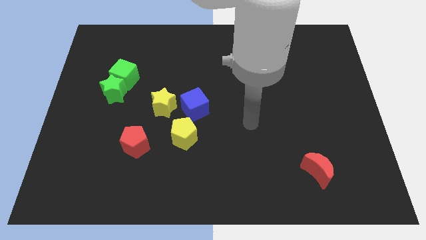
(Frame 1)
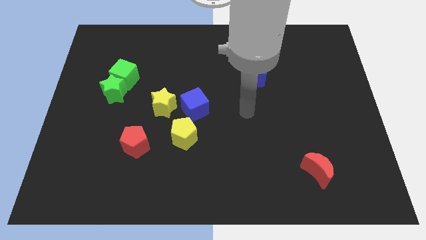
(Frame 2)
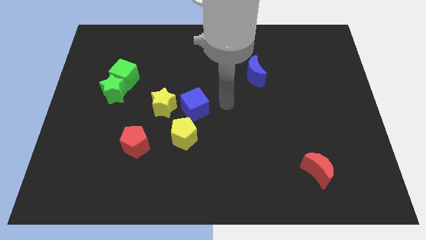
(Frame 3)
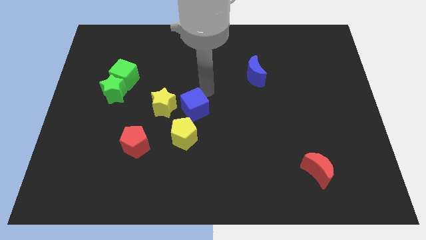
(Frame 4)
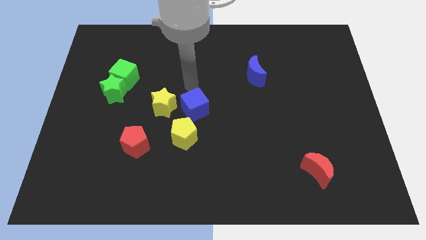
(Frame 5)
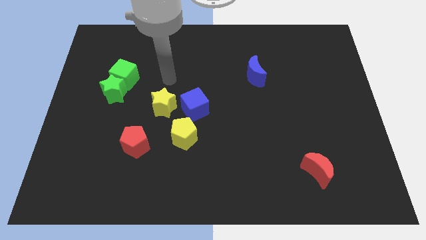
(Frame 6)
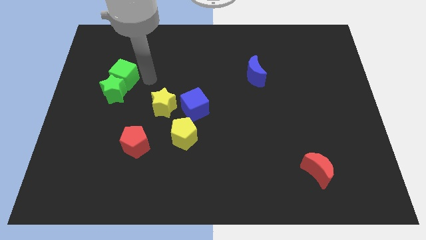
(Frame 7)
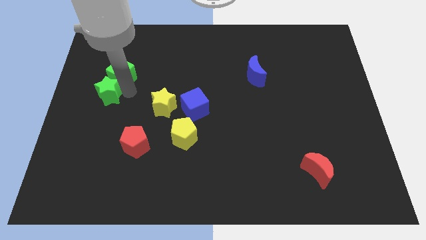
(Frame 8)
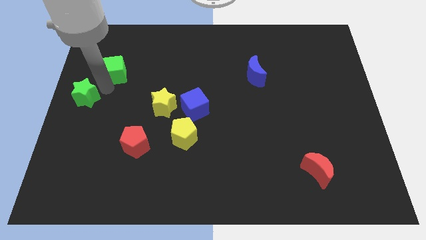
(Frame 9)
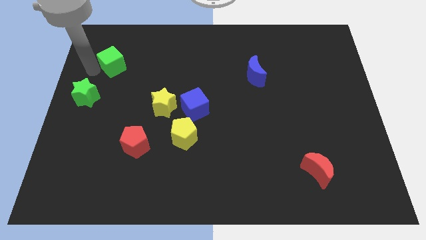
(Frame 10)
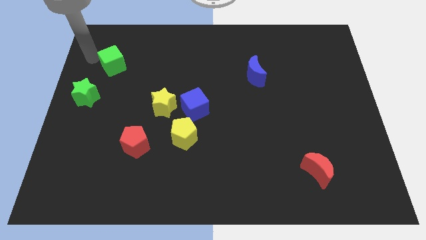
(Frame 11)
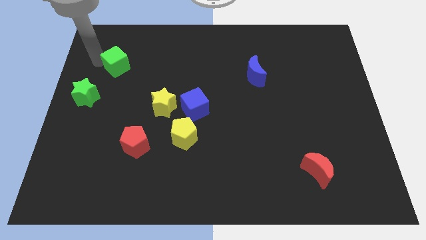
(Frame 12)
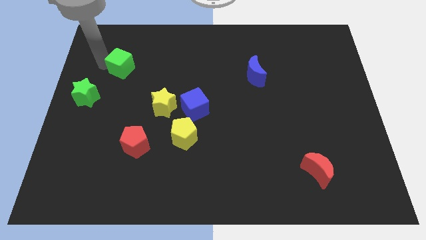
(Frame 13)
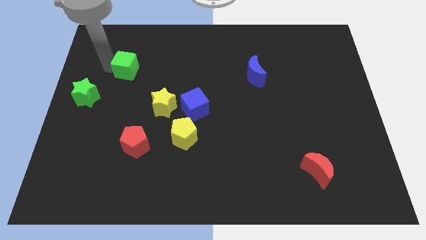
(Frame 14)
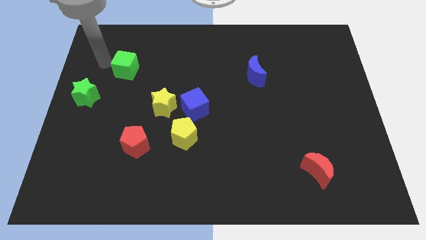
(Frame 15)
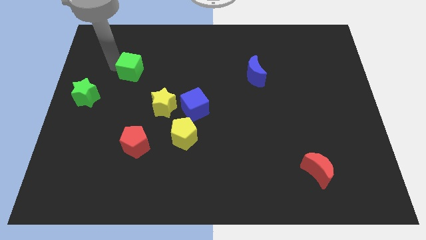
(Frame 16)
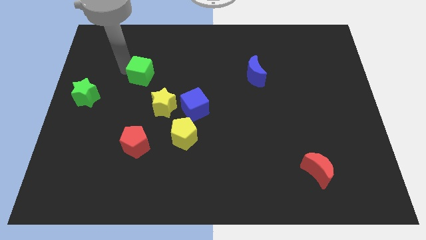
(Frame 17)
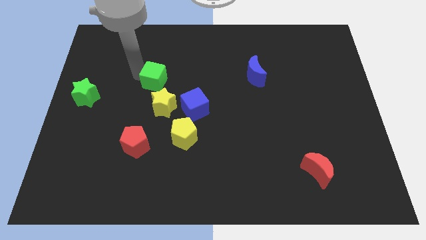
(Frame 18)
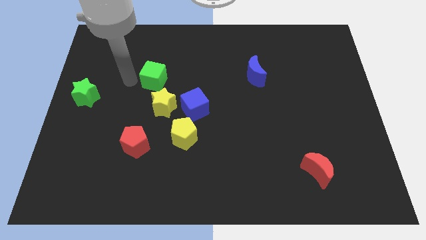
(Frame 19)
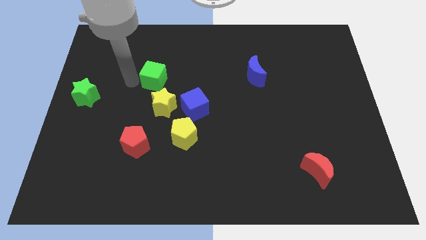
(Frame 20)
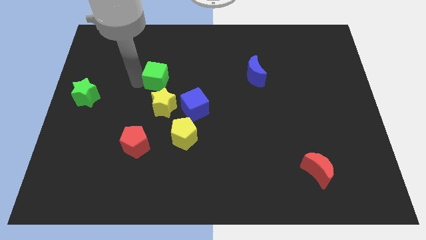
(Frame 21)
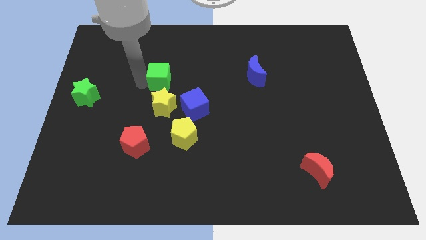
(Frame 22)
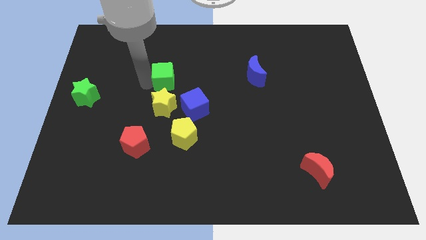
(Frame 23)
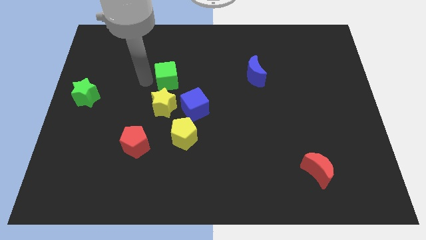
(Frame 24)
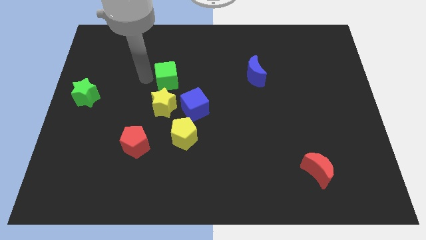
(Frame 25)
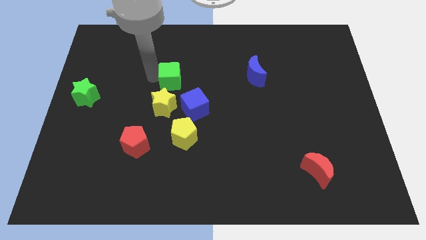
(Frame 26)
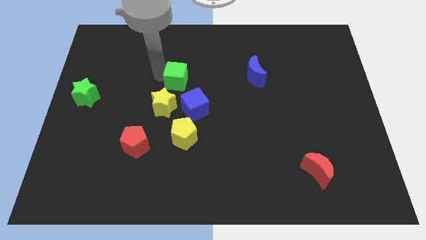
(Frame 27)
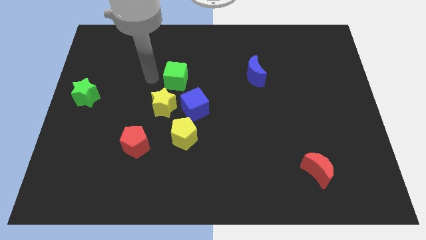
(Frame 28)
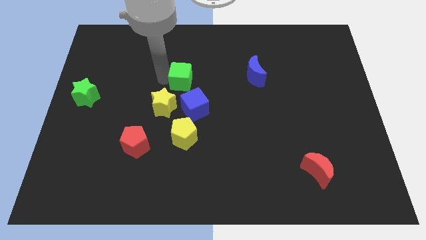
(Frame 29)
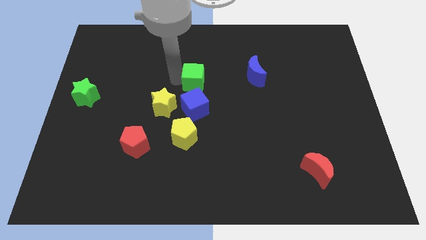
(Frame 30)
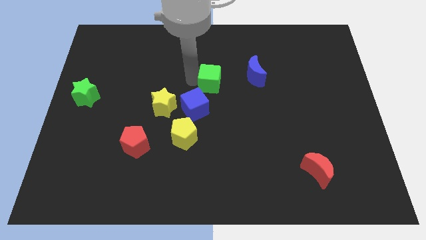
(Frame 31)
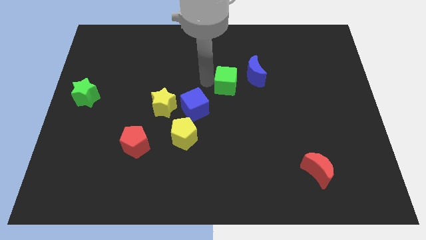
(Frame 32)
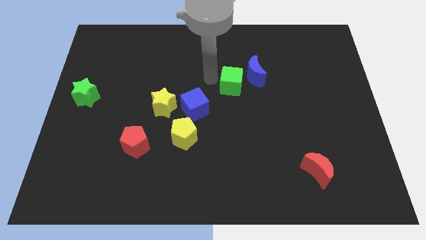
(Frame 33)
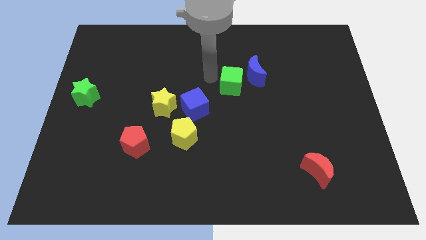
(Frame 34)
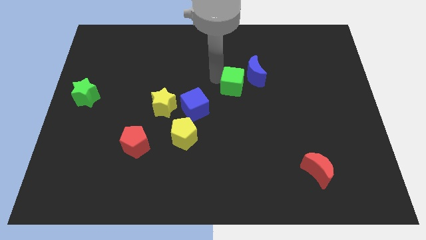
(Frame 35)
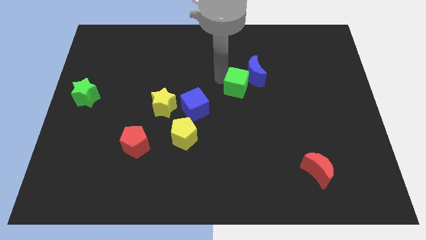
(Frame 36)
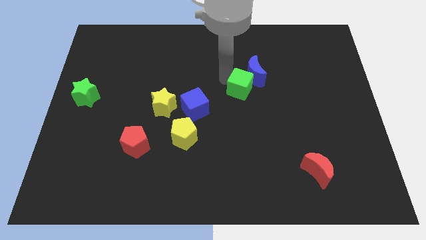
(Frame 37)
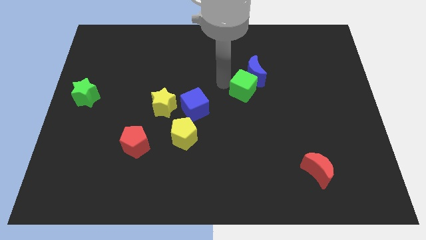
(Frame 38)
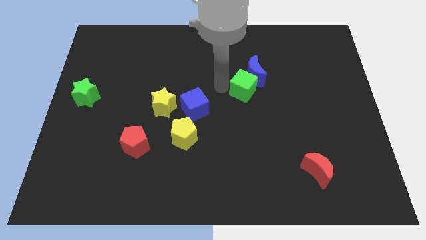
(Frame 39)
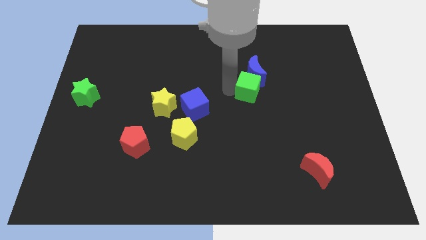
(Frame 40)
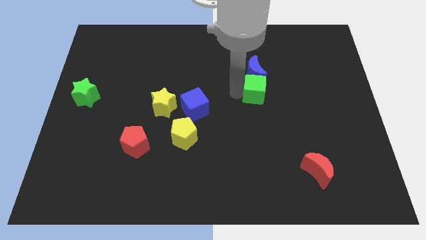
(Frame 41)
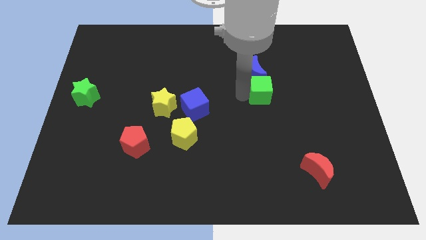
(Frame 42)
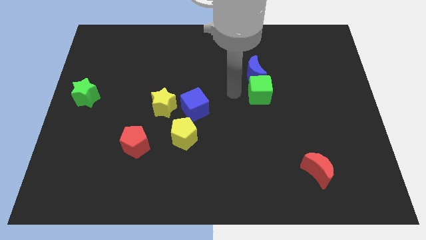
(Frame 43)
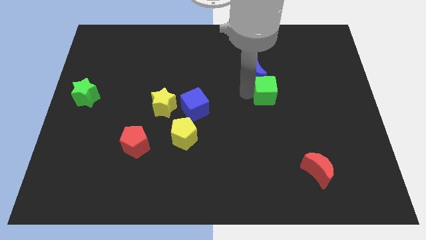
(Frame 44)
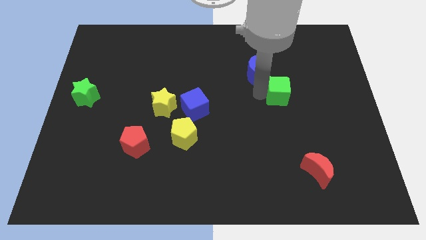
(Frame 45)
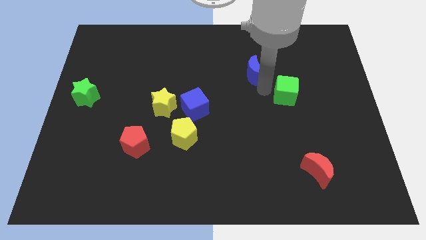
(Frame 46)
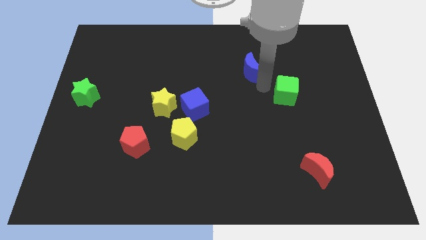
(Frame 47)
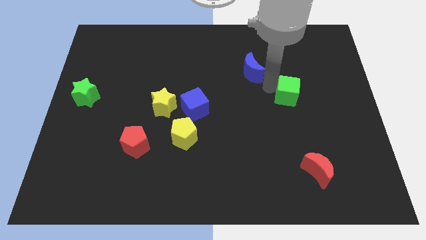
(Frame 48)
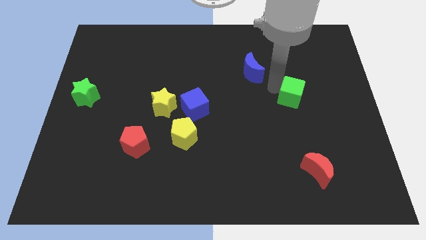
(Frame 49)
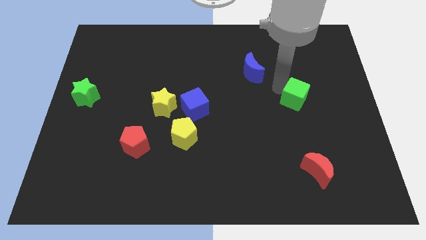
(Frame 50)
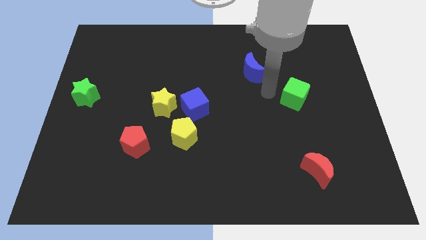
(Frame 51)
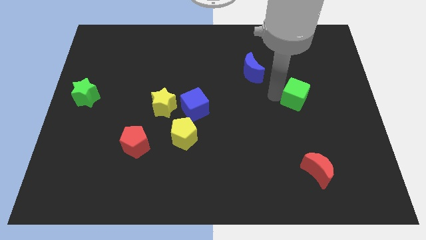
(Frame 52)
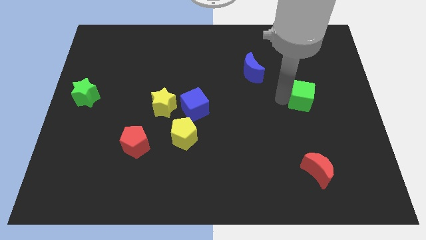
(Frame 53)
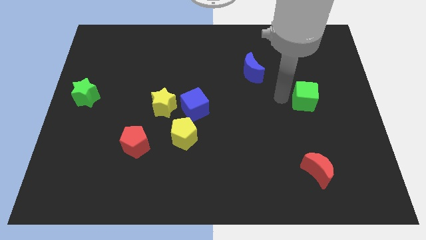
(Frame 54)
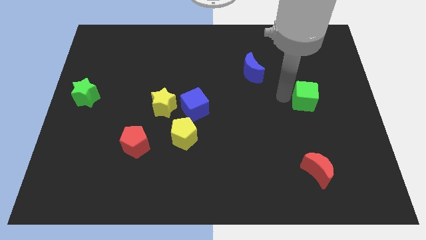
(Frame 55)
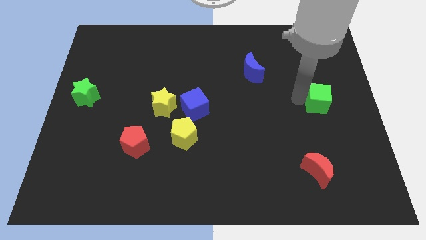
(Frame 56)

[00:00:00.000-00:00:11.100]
move the green cube to the right side of the board

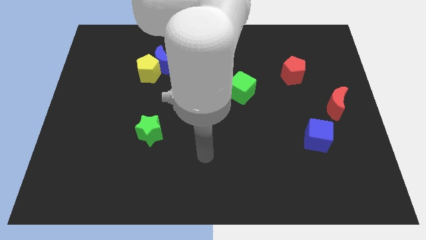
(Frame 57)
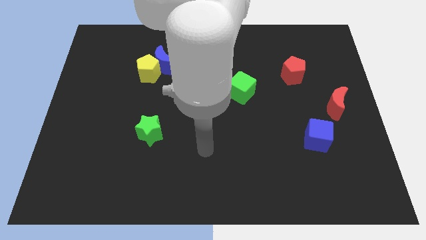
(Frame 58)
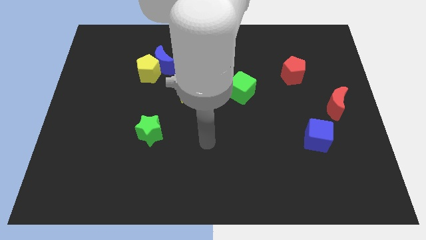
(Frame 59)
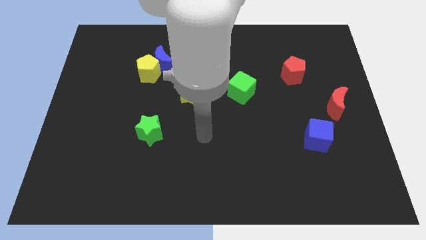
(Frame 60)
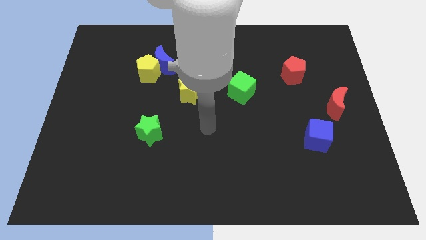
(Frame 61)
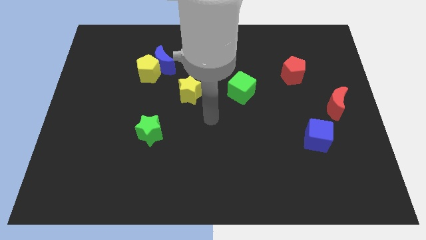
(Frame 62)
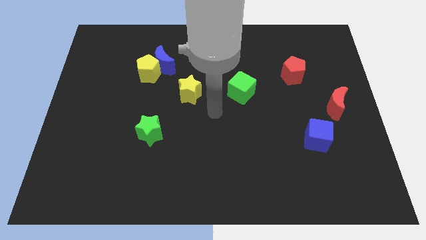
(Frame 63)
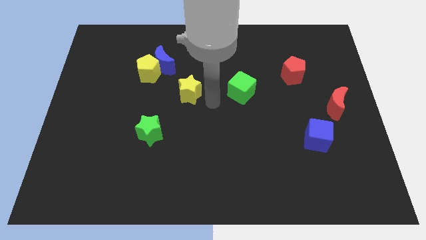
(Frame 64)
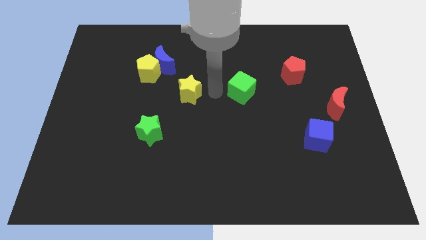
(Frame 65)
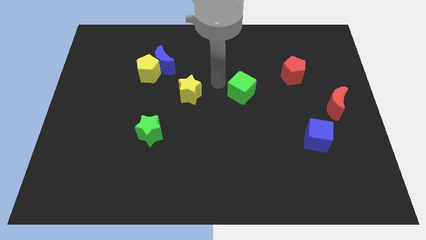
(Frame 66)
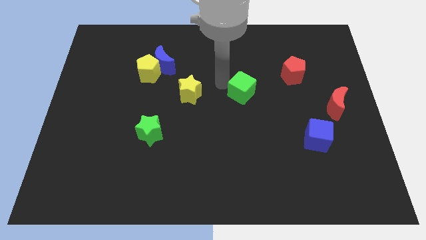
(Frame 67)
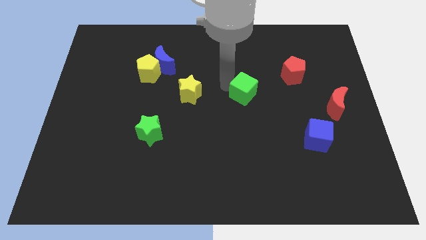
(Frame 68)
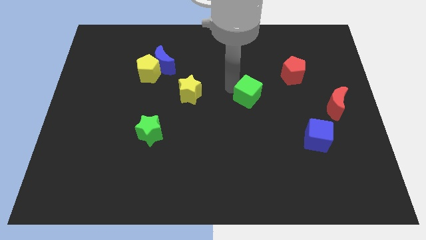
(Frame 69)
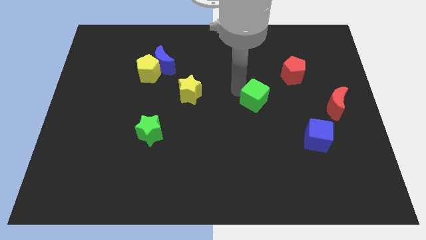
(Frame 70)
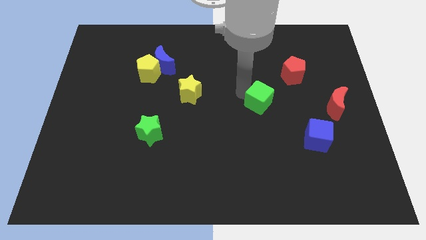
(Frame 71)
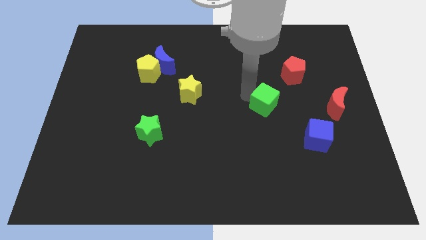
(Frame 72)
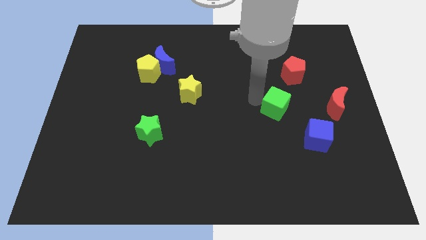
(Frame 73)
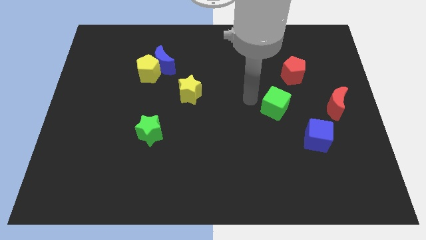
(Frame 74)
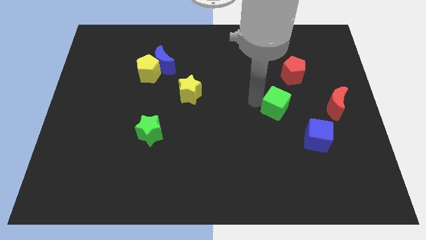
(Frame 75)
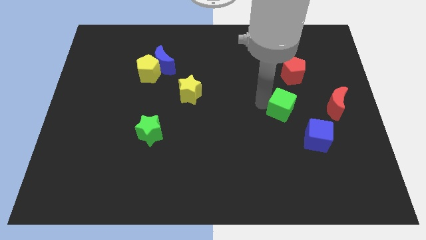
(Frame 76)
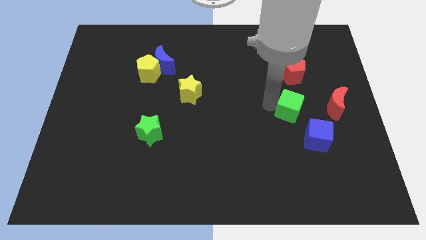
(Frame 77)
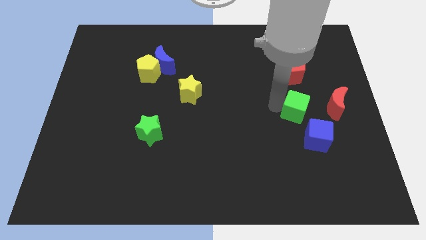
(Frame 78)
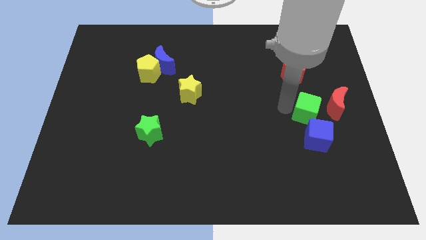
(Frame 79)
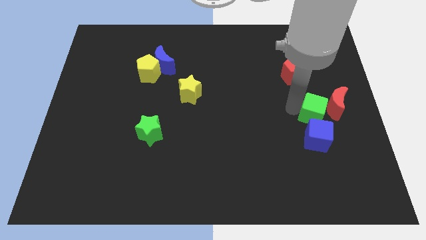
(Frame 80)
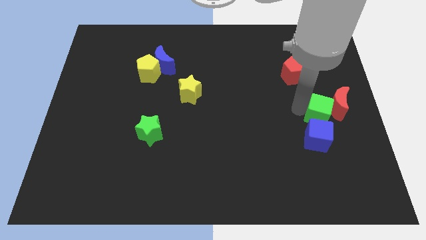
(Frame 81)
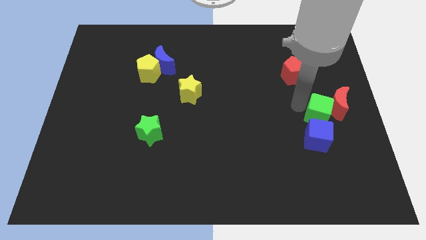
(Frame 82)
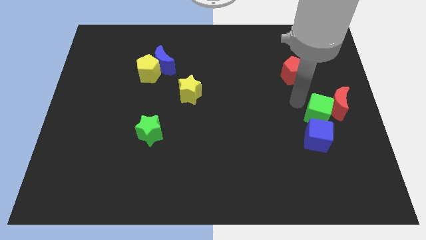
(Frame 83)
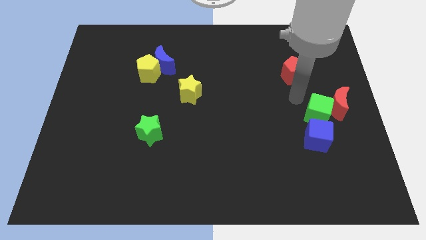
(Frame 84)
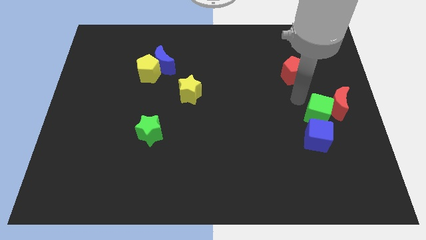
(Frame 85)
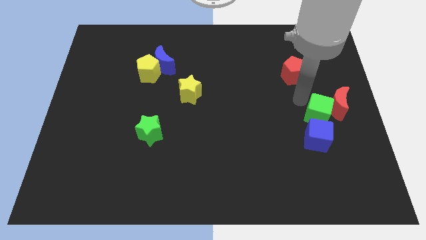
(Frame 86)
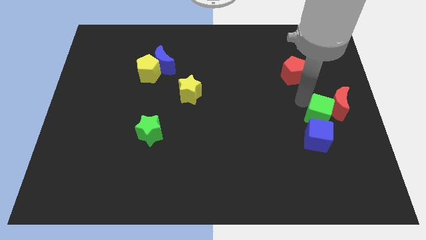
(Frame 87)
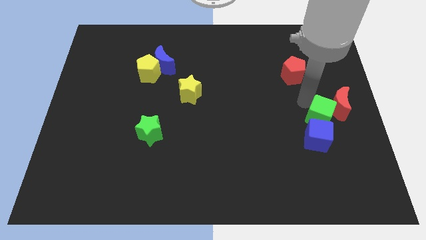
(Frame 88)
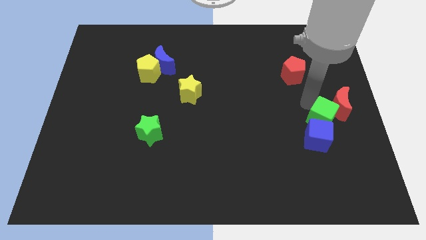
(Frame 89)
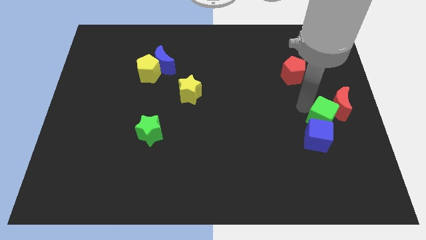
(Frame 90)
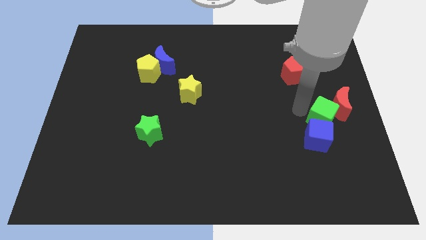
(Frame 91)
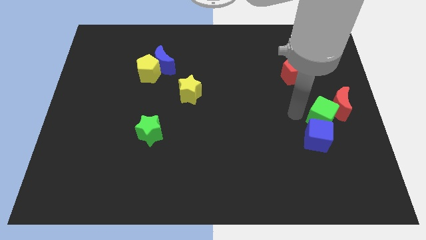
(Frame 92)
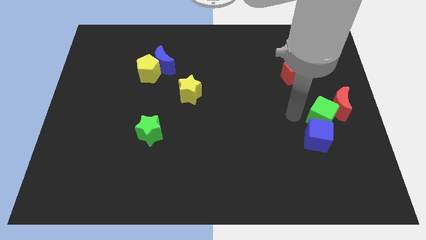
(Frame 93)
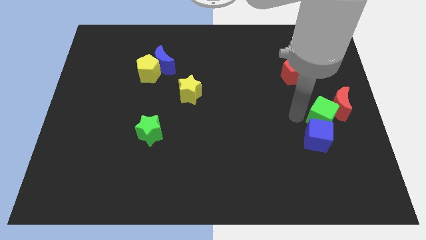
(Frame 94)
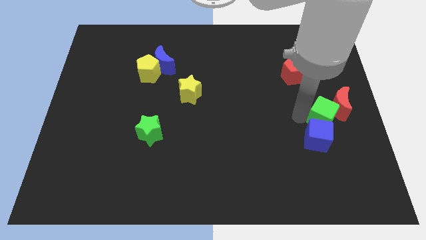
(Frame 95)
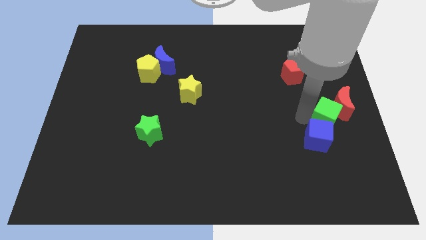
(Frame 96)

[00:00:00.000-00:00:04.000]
push the green cube to the right side of the board
